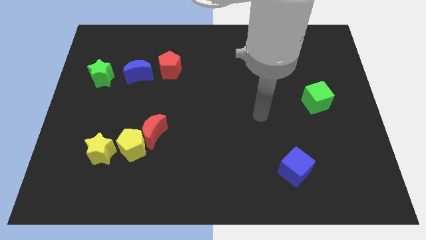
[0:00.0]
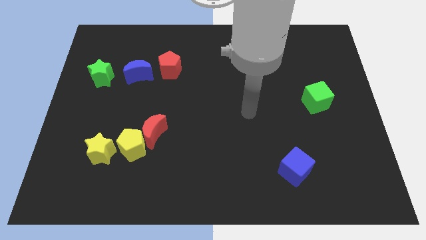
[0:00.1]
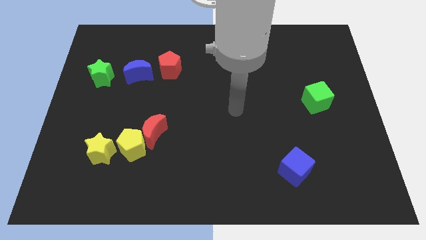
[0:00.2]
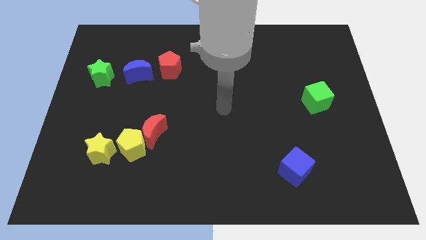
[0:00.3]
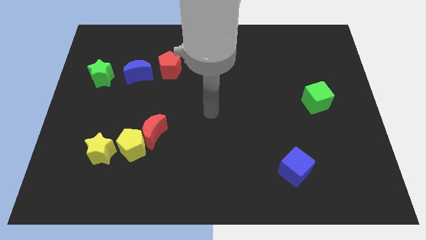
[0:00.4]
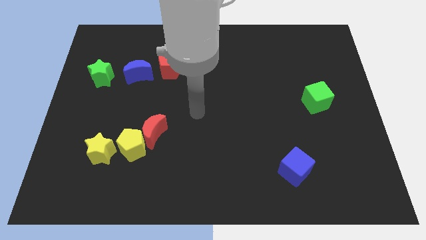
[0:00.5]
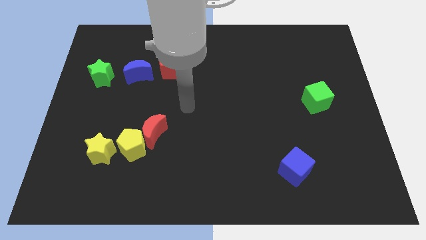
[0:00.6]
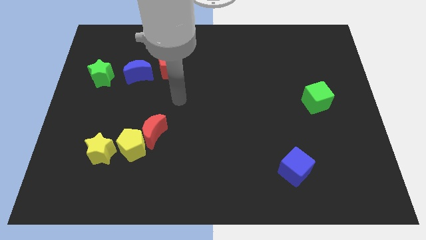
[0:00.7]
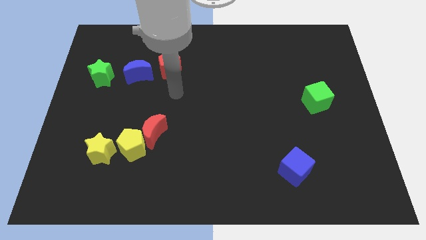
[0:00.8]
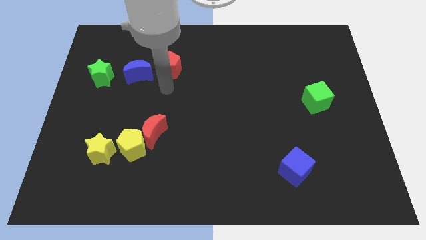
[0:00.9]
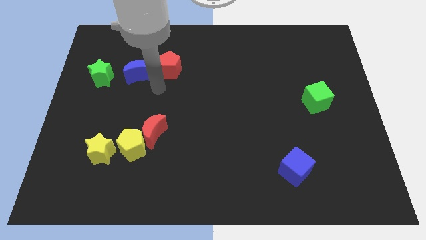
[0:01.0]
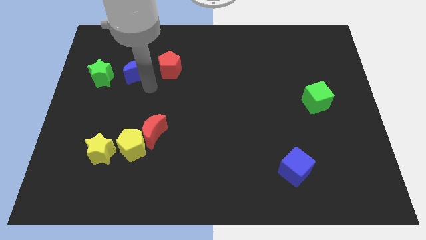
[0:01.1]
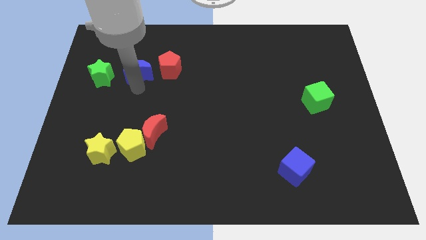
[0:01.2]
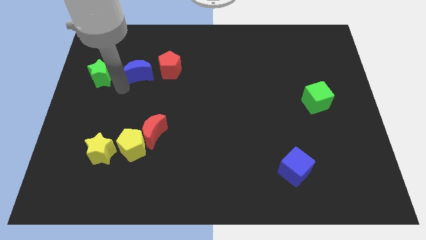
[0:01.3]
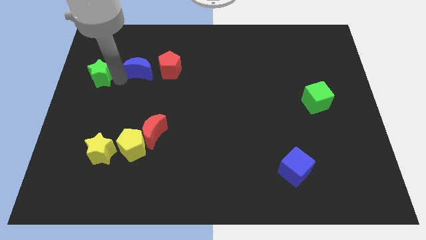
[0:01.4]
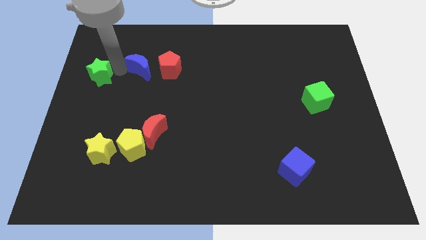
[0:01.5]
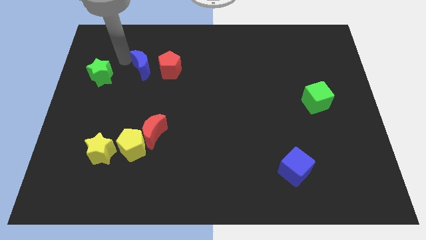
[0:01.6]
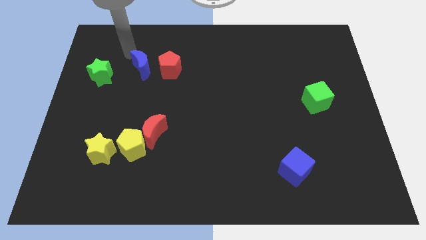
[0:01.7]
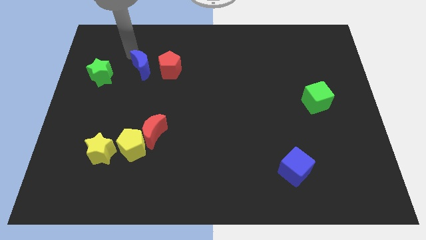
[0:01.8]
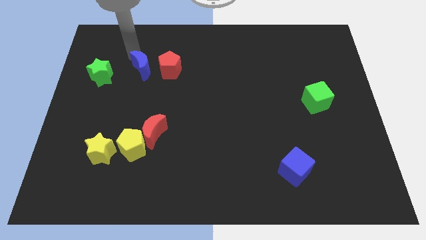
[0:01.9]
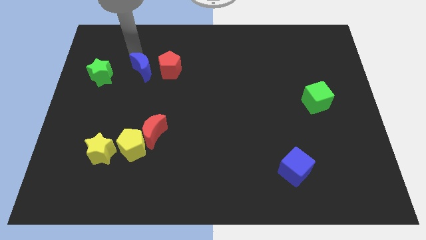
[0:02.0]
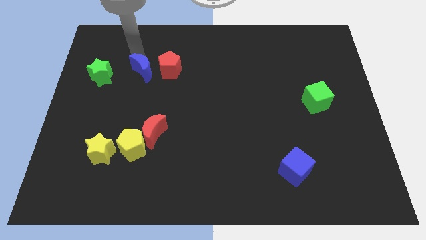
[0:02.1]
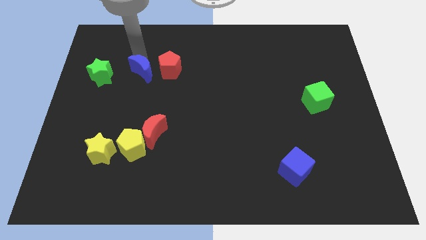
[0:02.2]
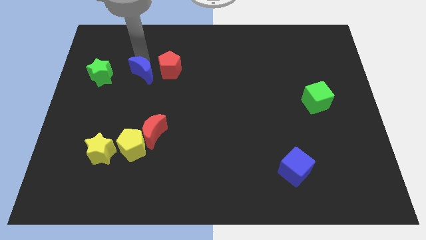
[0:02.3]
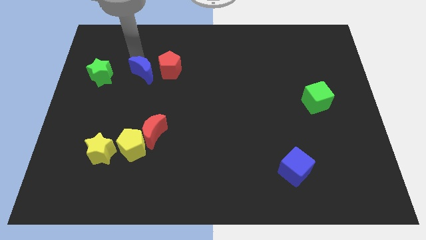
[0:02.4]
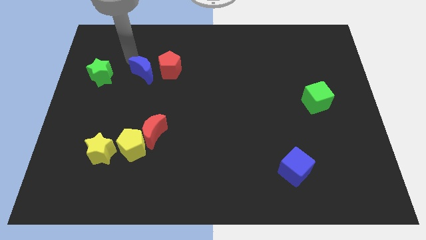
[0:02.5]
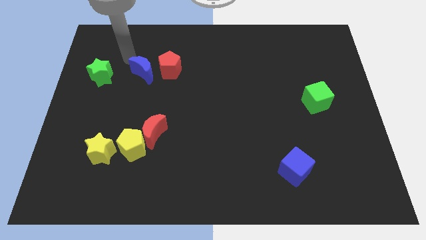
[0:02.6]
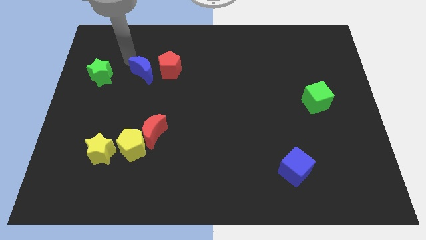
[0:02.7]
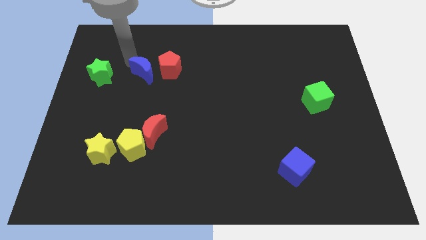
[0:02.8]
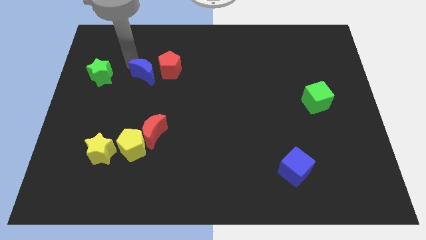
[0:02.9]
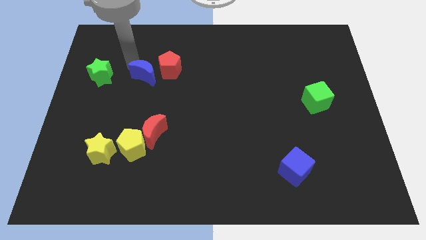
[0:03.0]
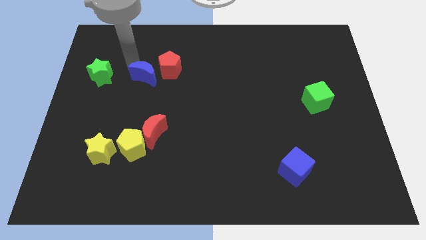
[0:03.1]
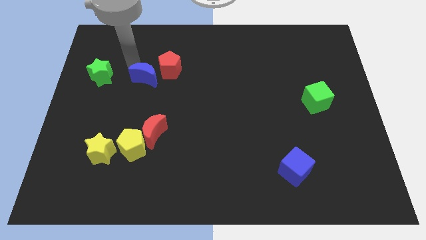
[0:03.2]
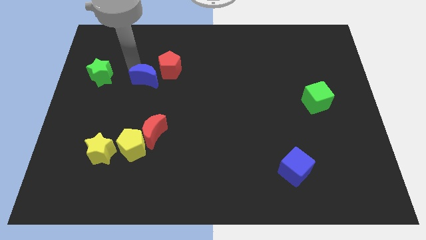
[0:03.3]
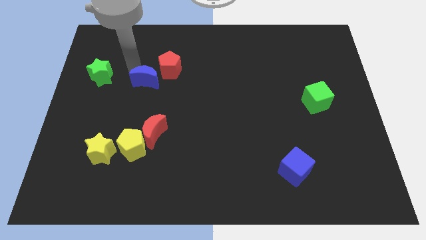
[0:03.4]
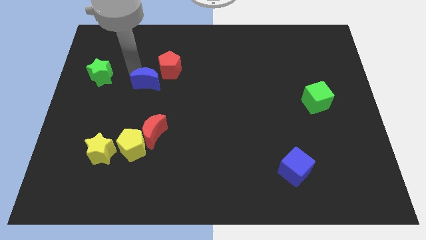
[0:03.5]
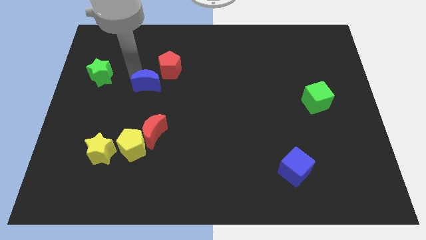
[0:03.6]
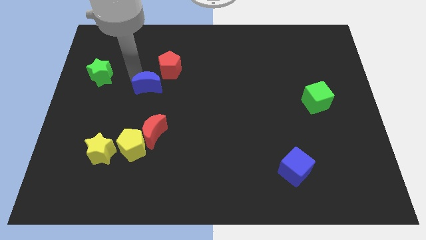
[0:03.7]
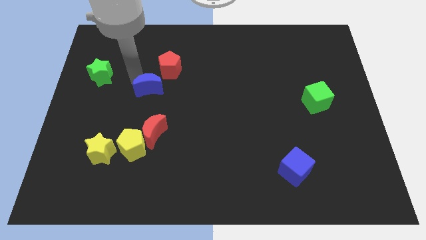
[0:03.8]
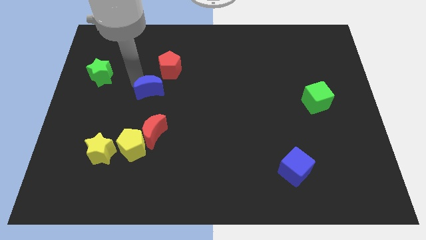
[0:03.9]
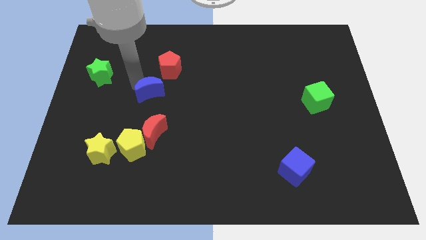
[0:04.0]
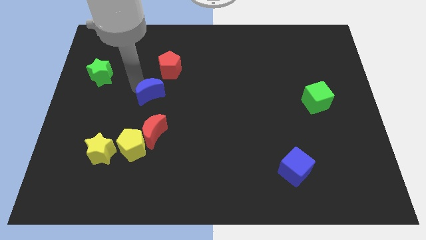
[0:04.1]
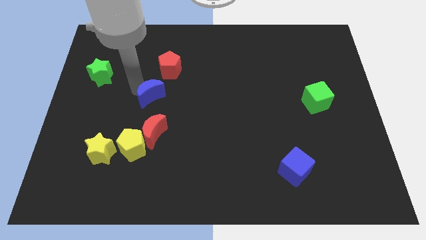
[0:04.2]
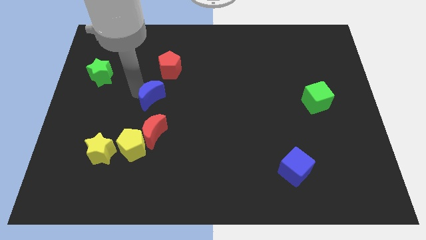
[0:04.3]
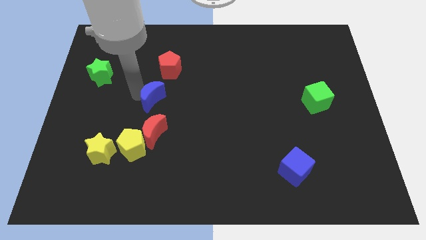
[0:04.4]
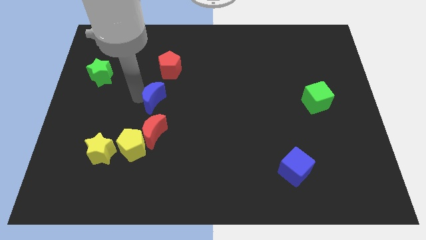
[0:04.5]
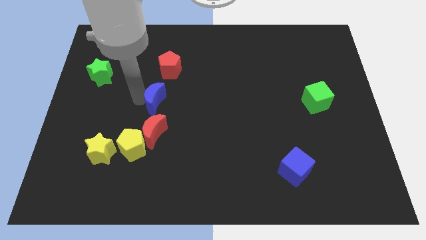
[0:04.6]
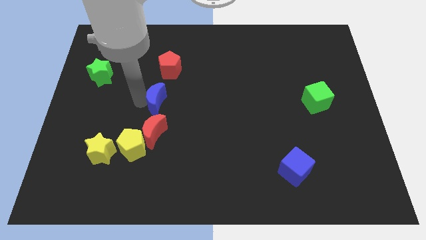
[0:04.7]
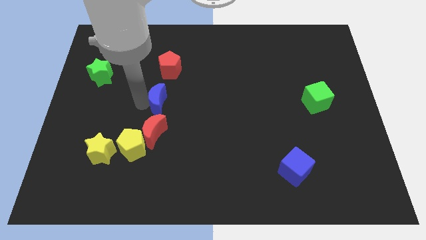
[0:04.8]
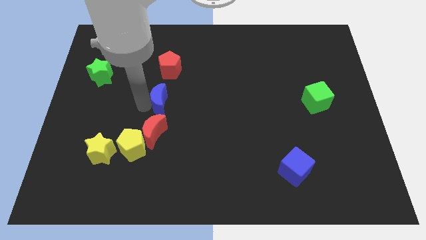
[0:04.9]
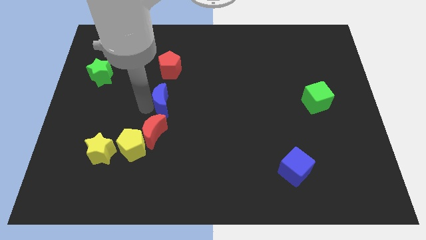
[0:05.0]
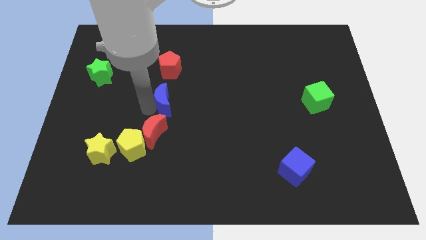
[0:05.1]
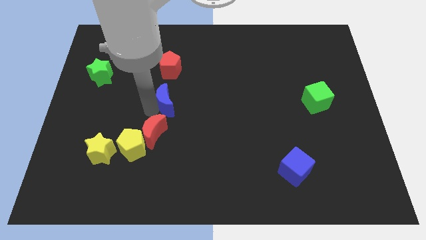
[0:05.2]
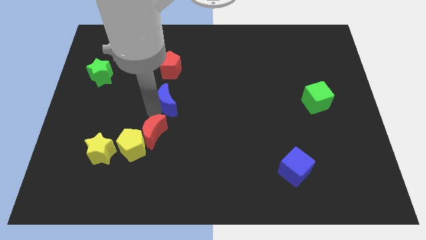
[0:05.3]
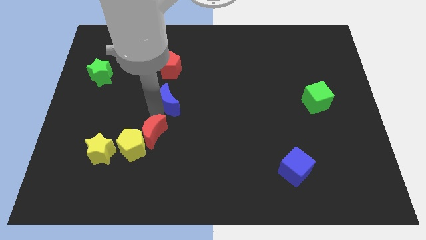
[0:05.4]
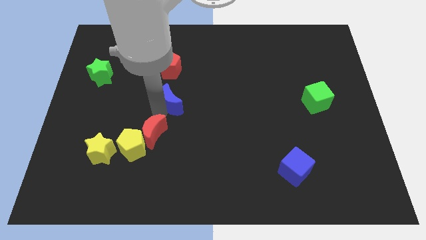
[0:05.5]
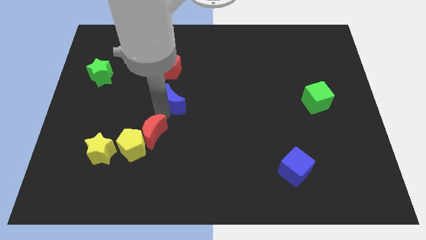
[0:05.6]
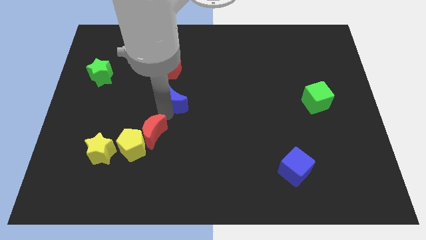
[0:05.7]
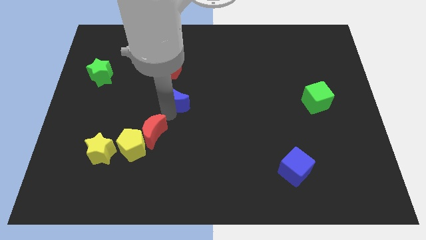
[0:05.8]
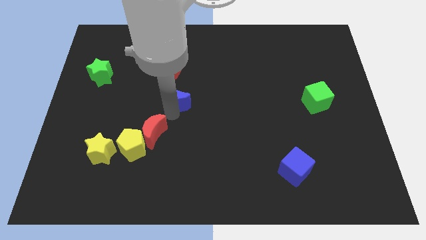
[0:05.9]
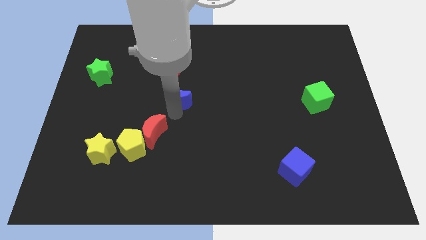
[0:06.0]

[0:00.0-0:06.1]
slide the blue moon right somewhat

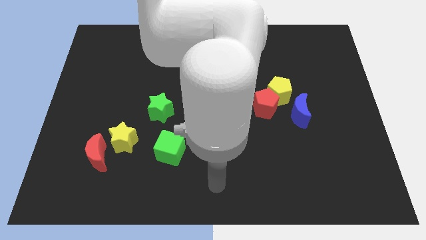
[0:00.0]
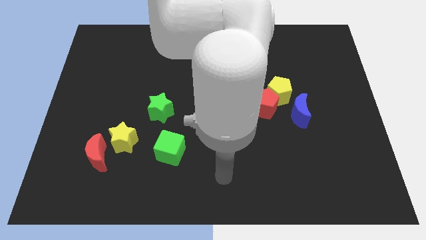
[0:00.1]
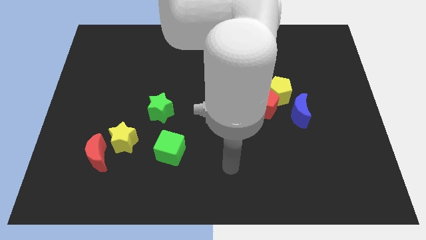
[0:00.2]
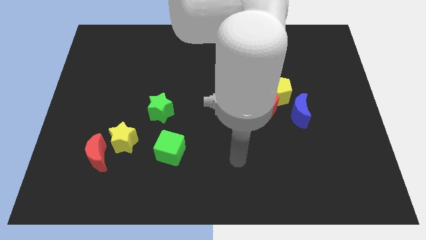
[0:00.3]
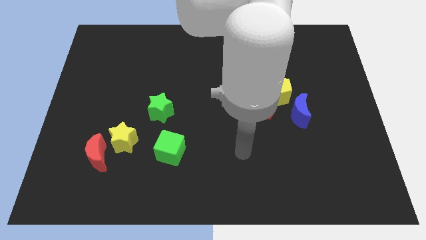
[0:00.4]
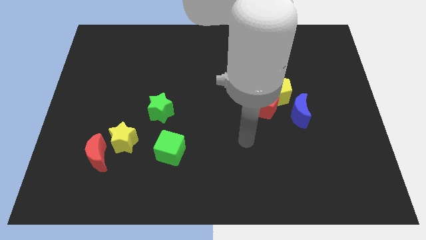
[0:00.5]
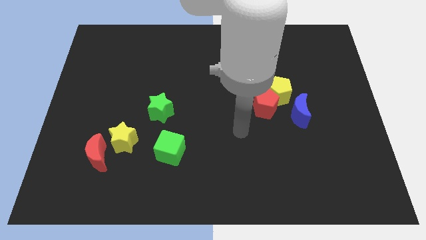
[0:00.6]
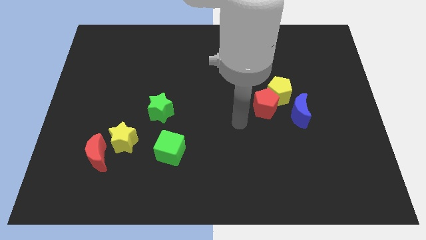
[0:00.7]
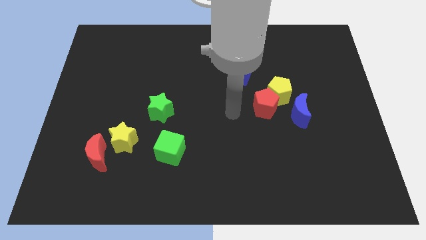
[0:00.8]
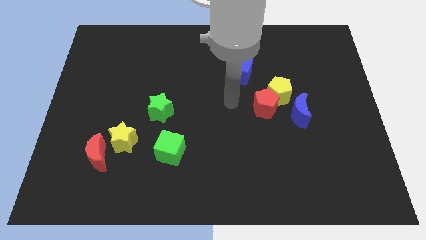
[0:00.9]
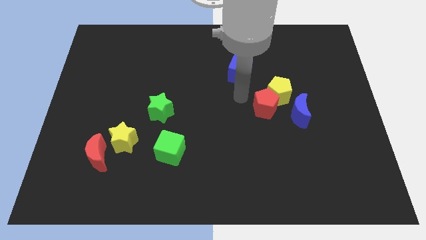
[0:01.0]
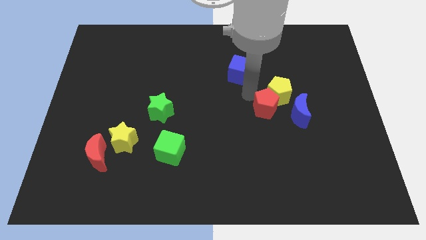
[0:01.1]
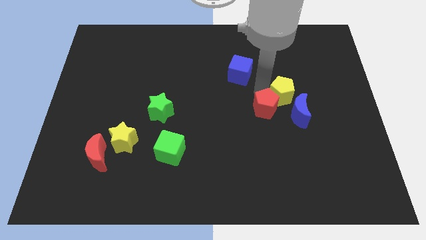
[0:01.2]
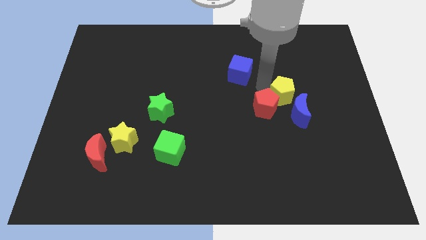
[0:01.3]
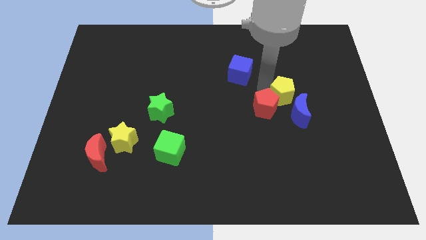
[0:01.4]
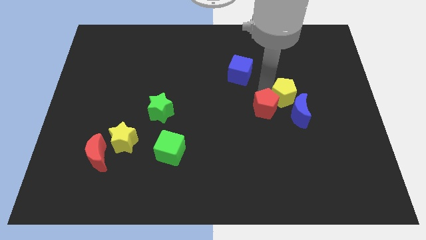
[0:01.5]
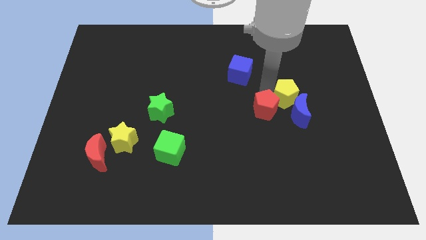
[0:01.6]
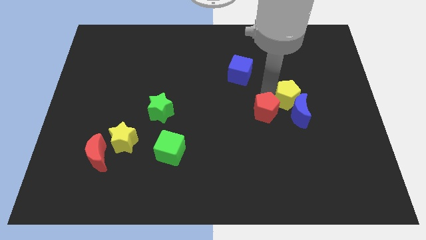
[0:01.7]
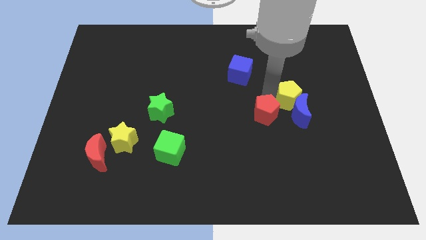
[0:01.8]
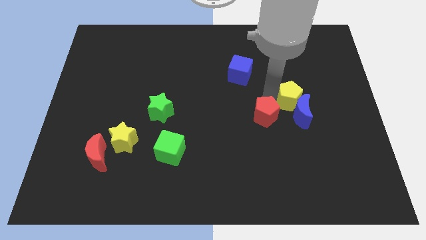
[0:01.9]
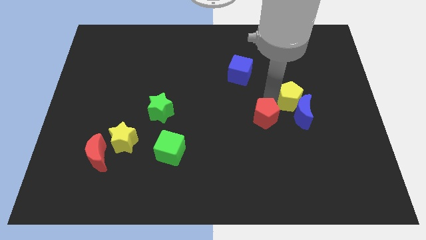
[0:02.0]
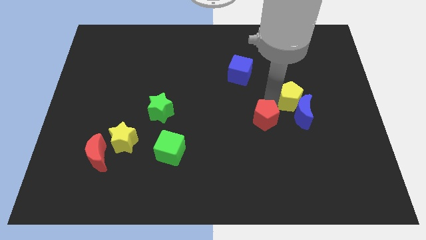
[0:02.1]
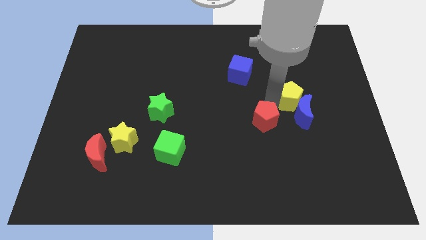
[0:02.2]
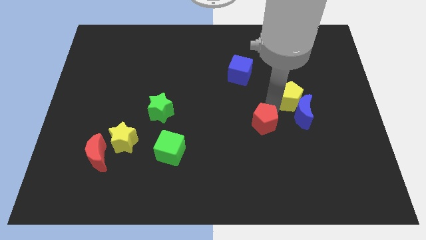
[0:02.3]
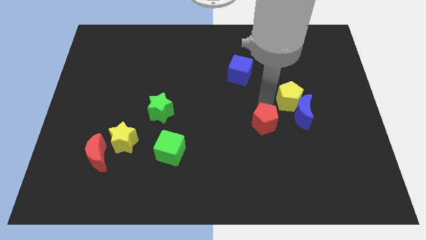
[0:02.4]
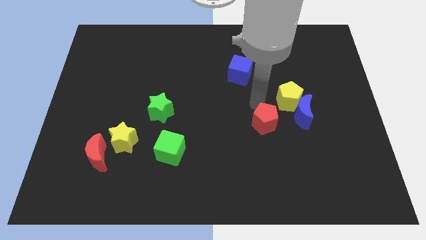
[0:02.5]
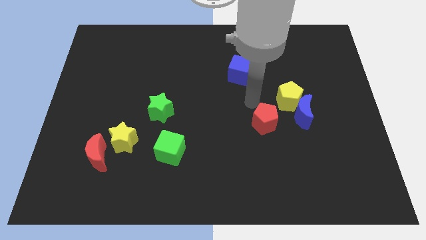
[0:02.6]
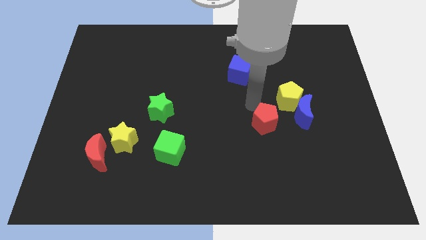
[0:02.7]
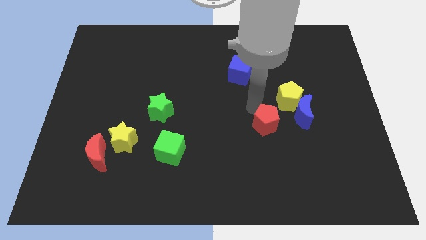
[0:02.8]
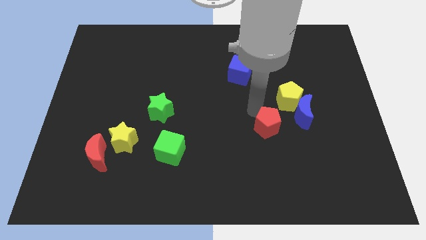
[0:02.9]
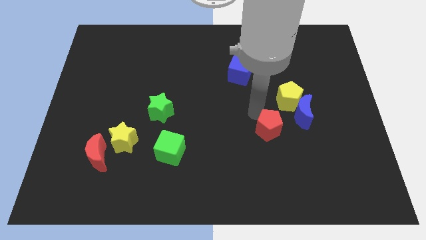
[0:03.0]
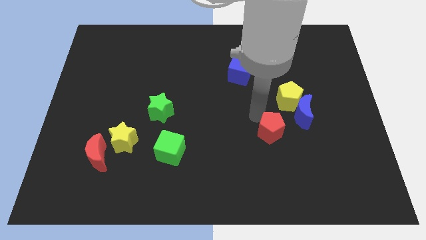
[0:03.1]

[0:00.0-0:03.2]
push the red pentagon down somewhat
